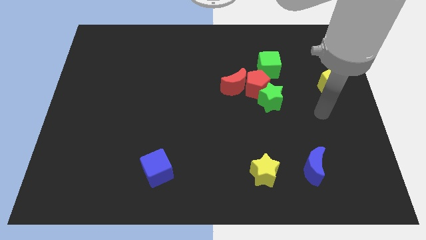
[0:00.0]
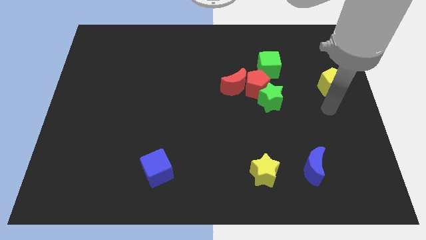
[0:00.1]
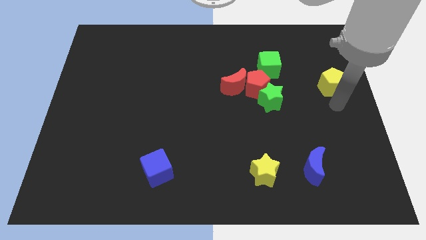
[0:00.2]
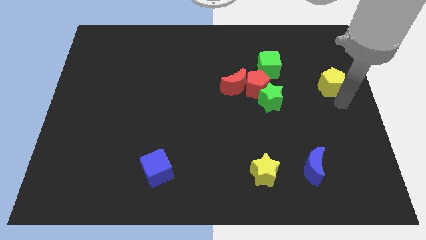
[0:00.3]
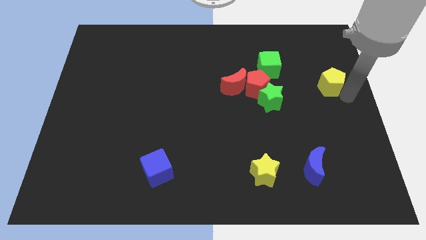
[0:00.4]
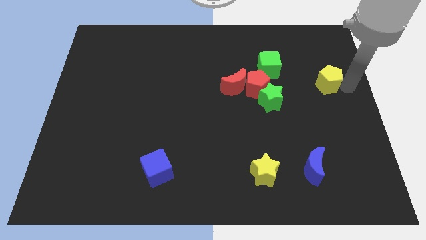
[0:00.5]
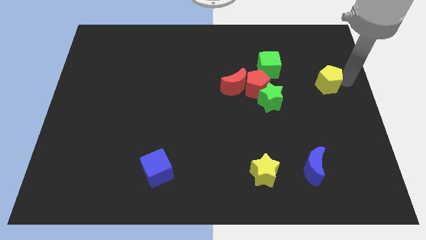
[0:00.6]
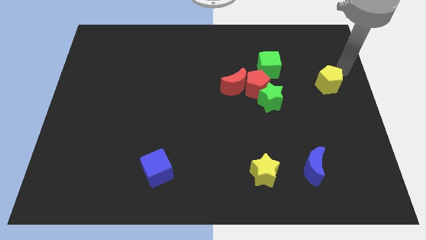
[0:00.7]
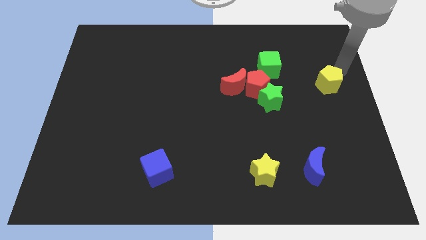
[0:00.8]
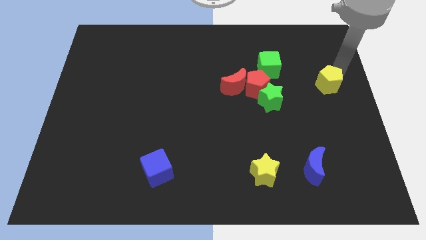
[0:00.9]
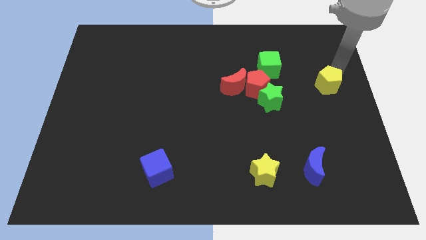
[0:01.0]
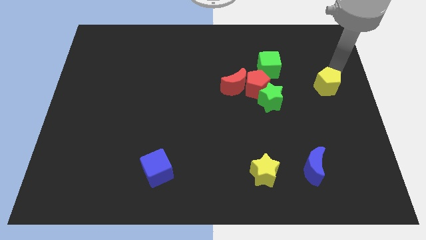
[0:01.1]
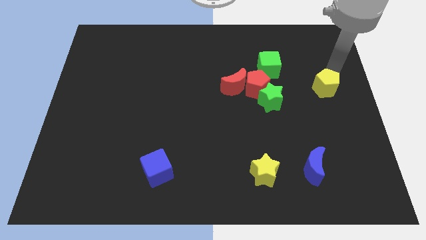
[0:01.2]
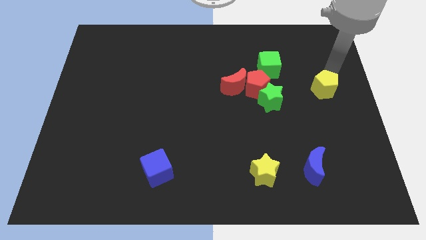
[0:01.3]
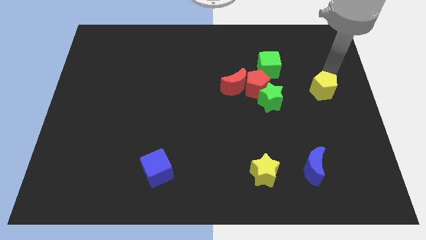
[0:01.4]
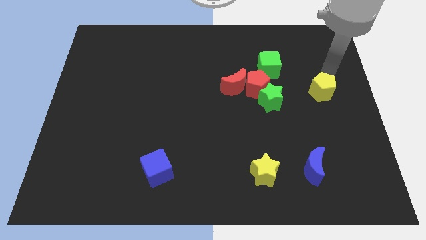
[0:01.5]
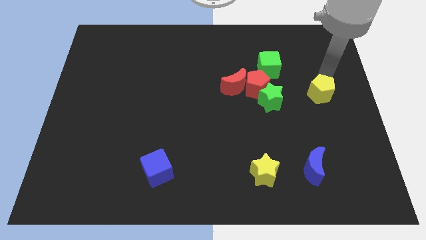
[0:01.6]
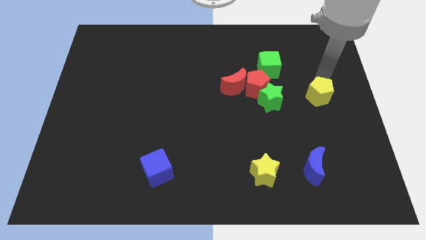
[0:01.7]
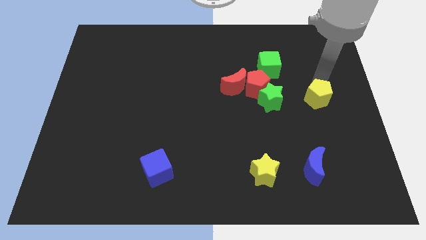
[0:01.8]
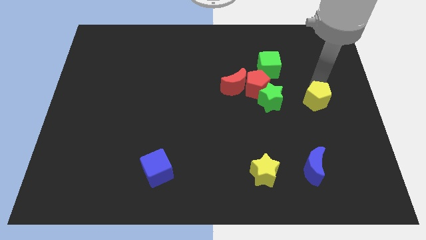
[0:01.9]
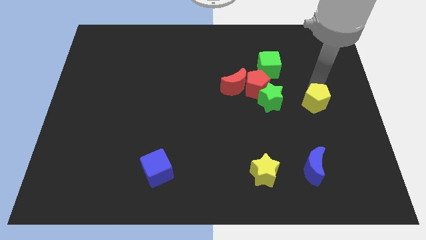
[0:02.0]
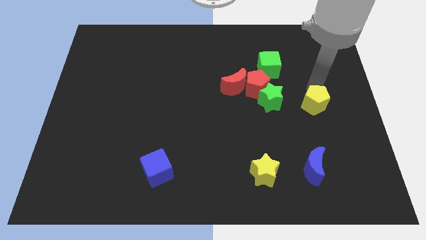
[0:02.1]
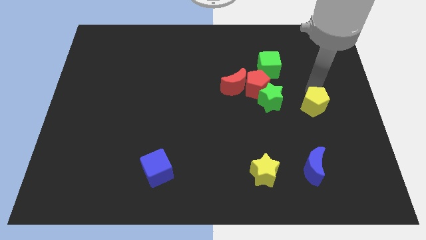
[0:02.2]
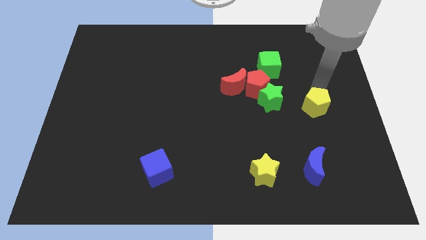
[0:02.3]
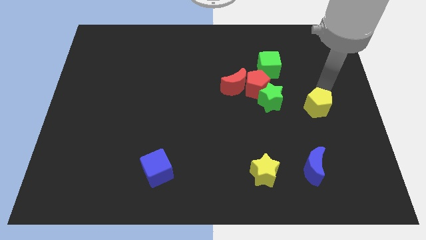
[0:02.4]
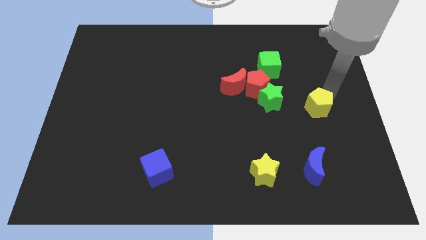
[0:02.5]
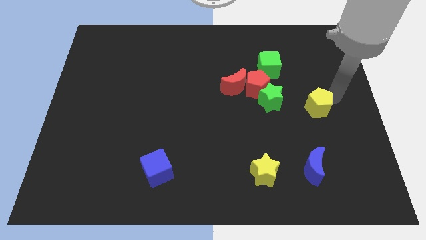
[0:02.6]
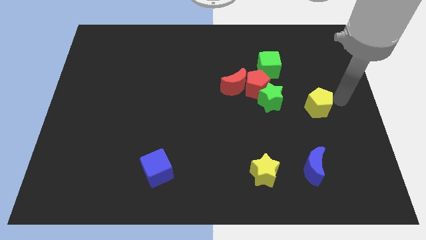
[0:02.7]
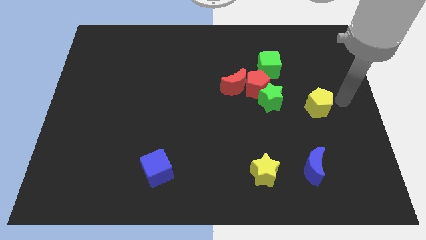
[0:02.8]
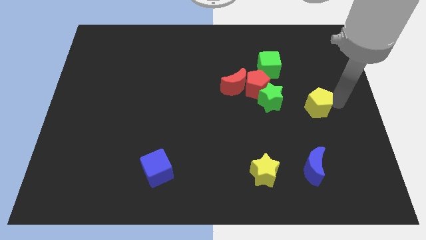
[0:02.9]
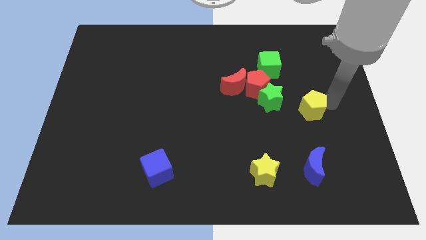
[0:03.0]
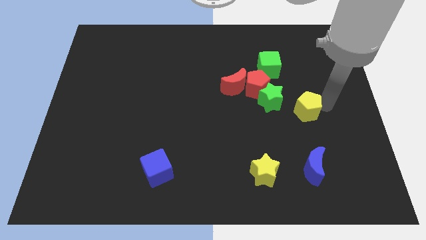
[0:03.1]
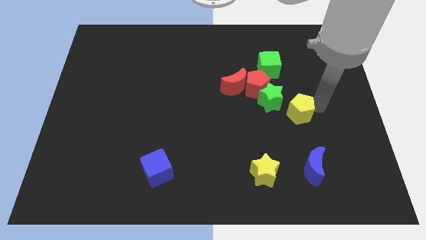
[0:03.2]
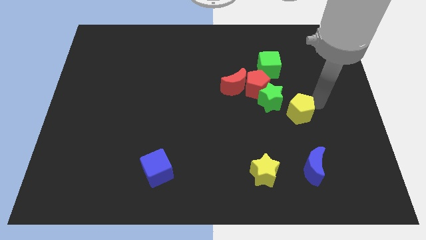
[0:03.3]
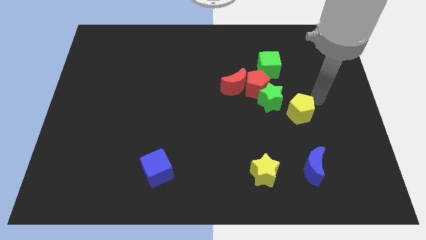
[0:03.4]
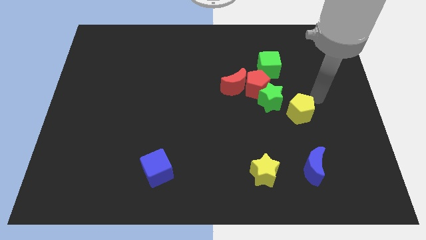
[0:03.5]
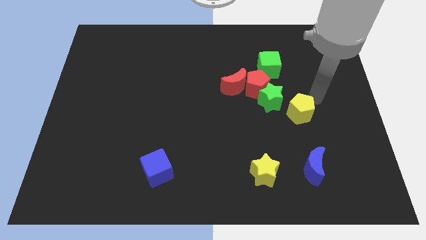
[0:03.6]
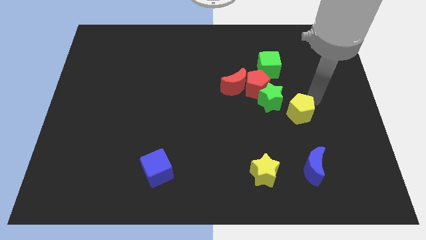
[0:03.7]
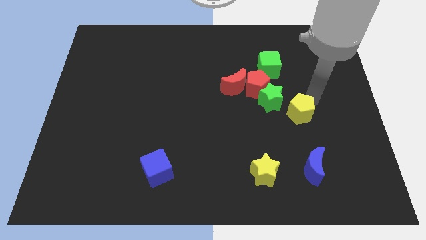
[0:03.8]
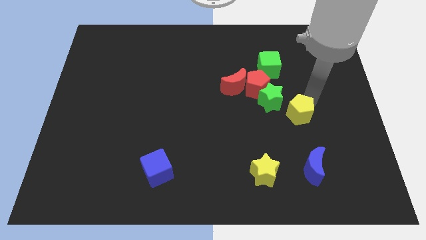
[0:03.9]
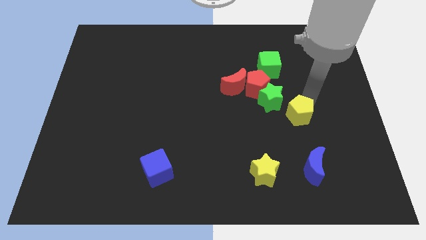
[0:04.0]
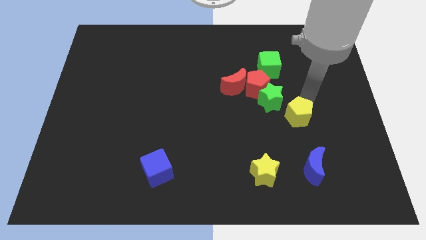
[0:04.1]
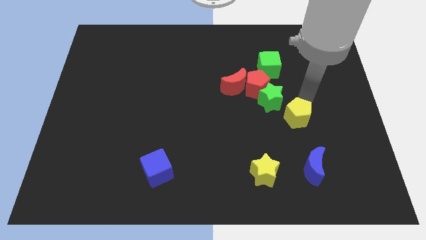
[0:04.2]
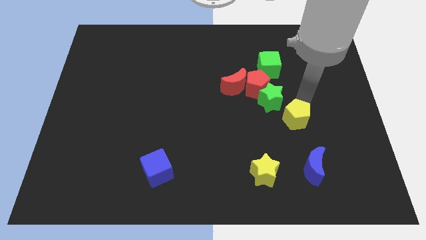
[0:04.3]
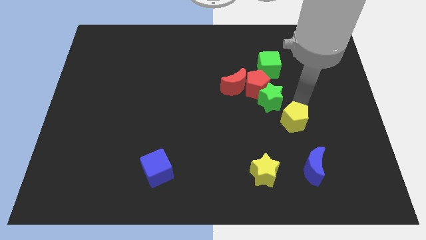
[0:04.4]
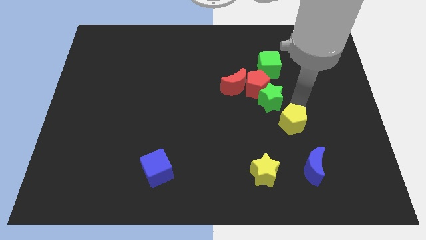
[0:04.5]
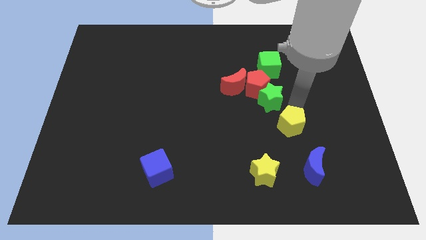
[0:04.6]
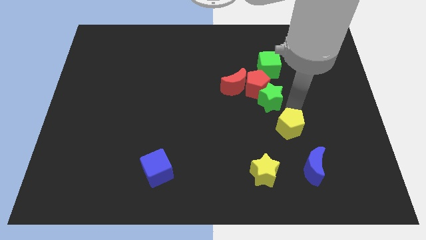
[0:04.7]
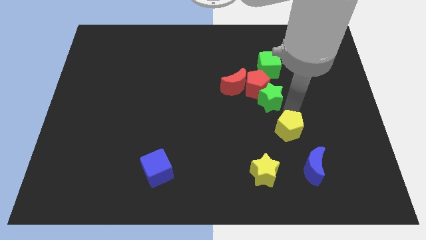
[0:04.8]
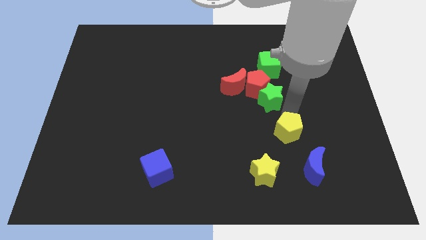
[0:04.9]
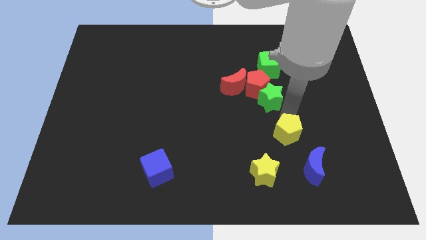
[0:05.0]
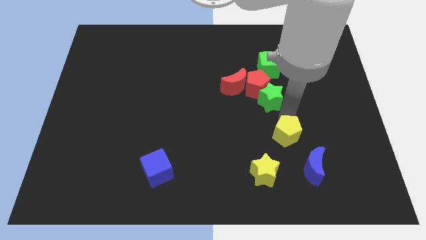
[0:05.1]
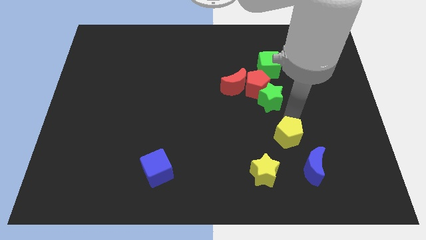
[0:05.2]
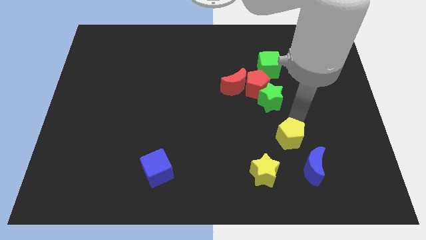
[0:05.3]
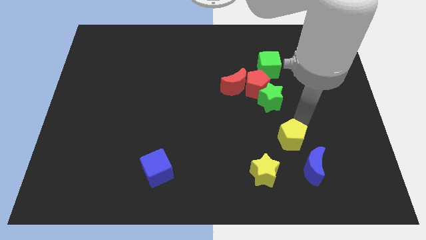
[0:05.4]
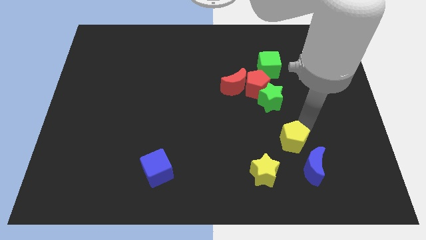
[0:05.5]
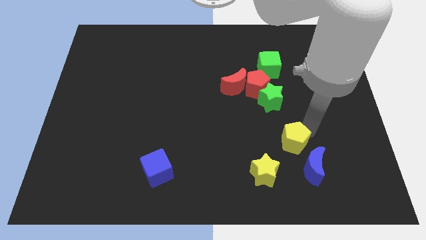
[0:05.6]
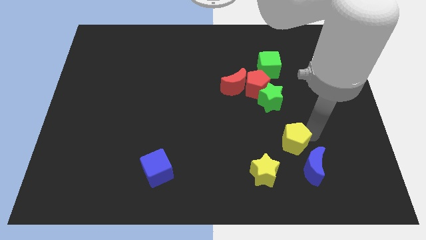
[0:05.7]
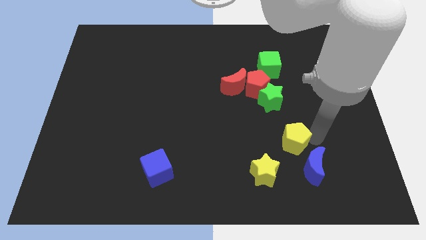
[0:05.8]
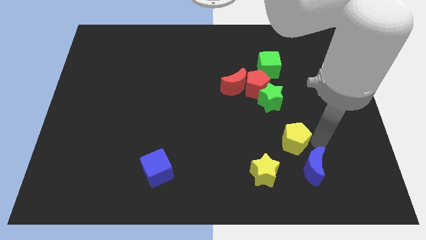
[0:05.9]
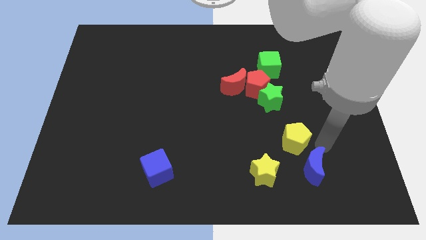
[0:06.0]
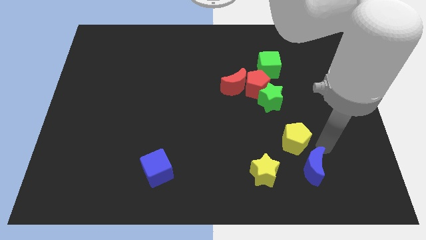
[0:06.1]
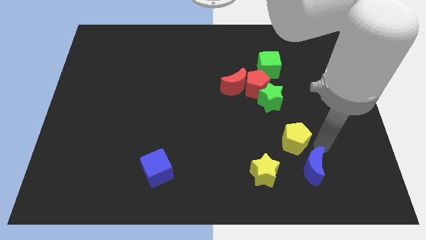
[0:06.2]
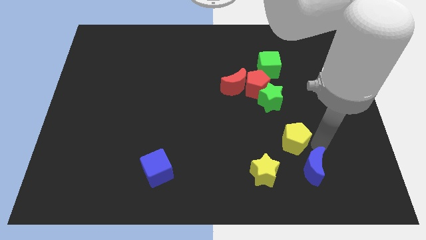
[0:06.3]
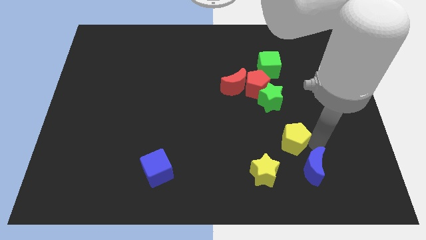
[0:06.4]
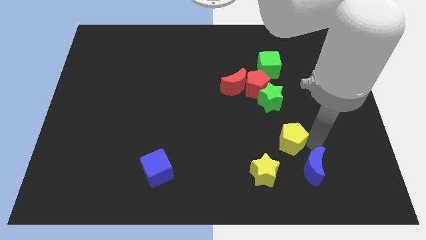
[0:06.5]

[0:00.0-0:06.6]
push the yellow pentagon downwards and to the left diagonally

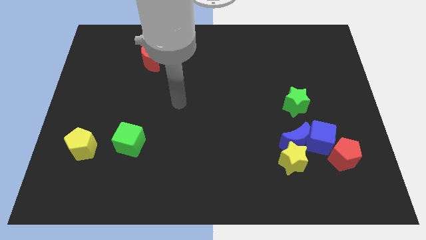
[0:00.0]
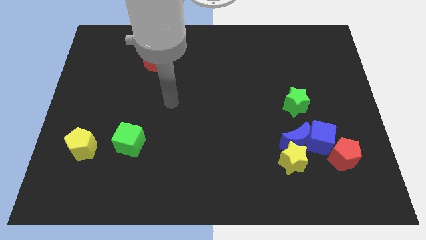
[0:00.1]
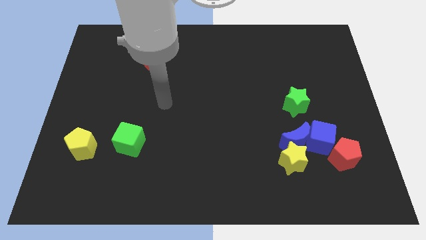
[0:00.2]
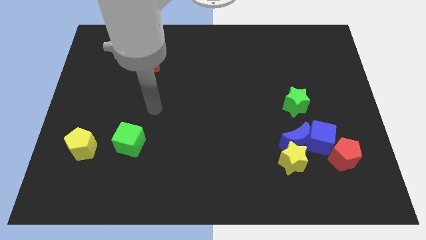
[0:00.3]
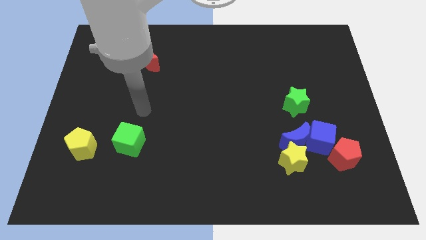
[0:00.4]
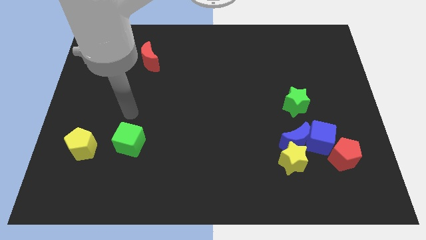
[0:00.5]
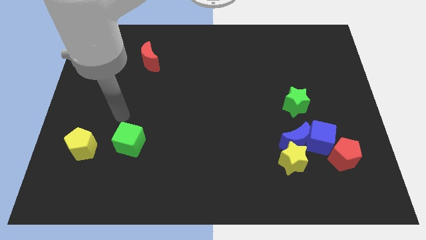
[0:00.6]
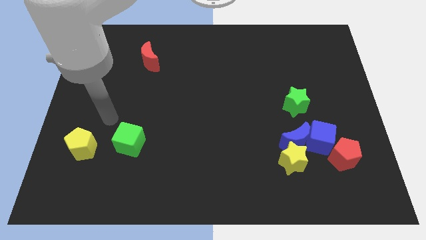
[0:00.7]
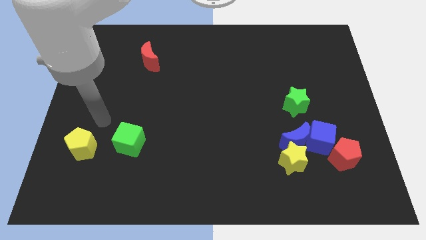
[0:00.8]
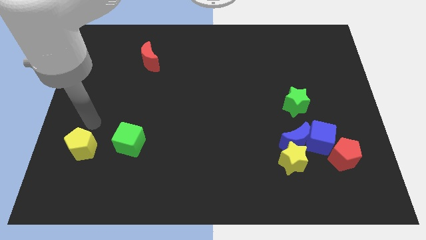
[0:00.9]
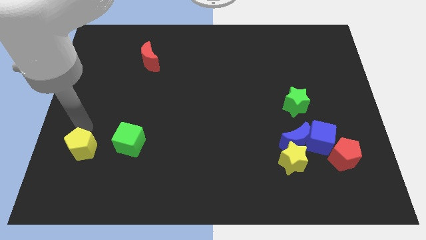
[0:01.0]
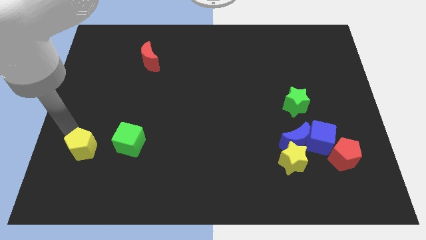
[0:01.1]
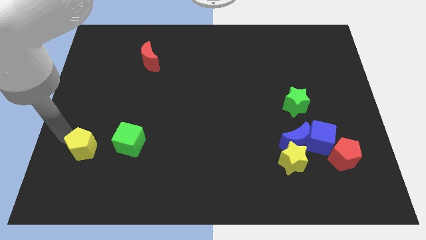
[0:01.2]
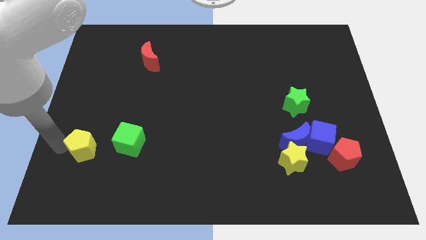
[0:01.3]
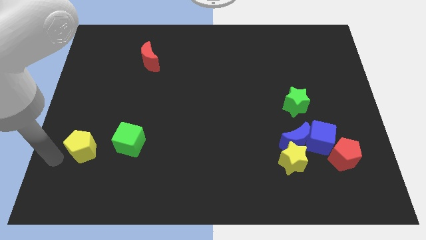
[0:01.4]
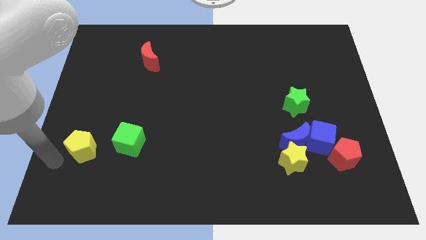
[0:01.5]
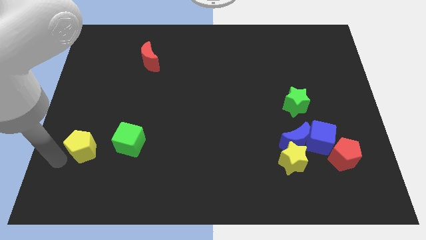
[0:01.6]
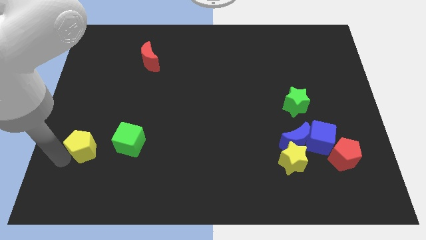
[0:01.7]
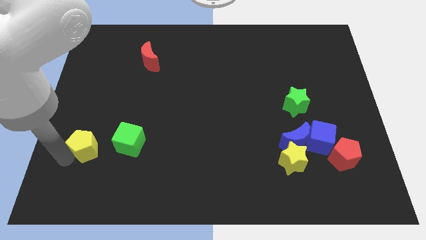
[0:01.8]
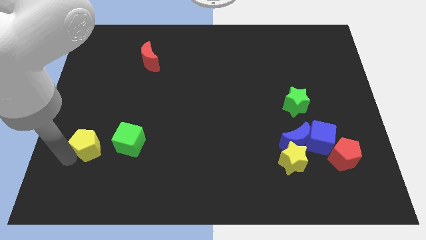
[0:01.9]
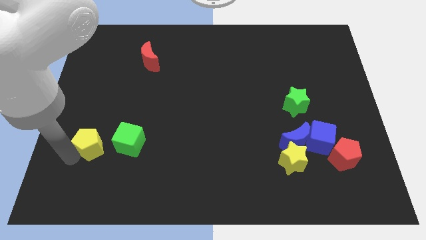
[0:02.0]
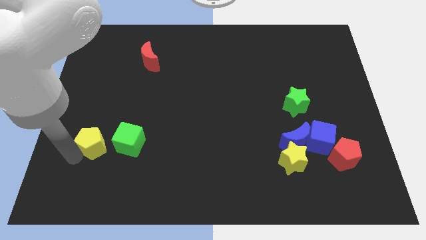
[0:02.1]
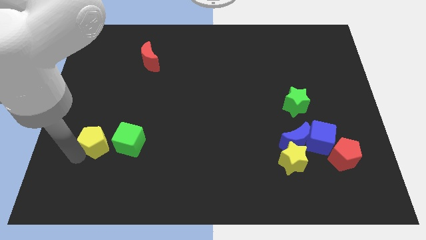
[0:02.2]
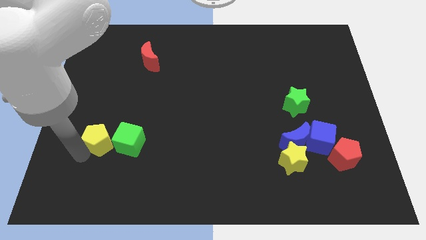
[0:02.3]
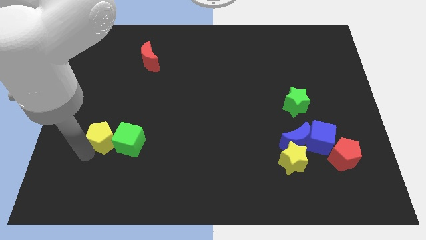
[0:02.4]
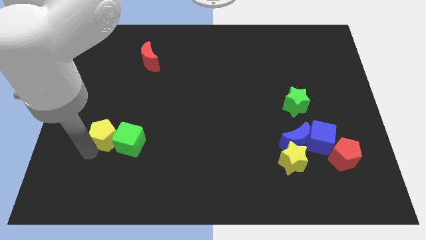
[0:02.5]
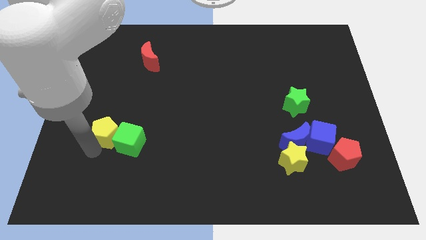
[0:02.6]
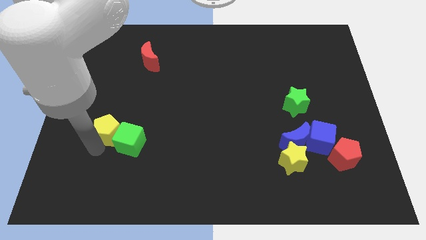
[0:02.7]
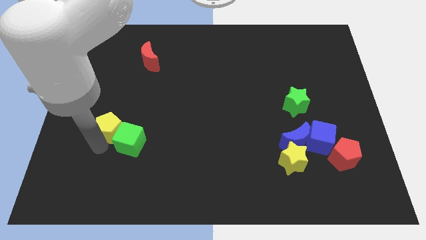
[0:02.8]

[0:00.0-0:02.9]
slightly push the yellow pentagon up and then to the right
